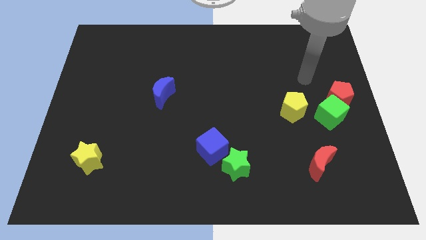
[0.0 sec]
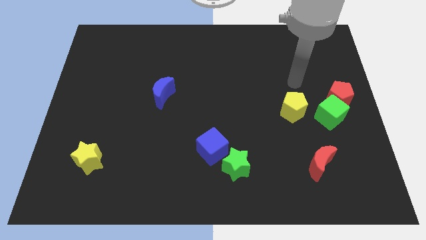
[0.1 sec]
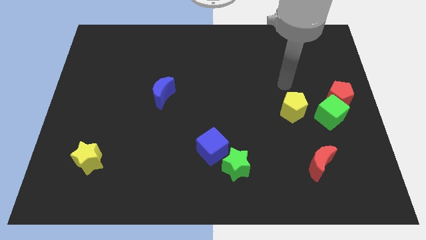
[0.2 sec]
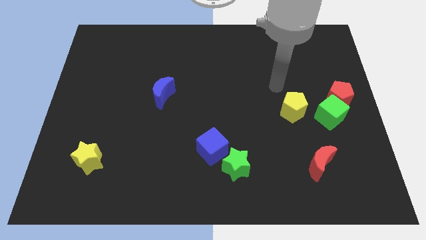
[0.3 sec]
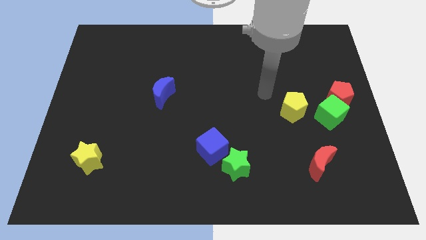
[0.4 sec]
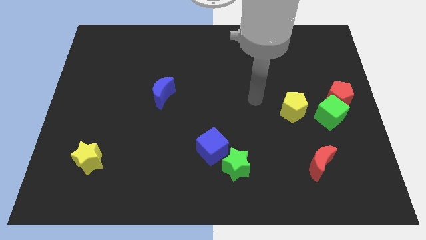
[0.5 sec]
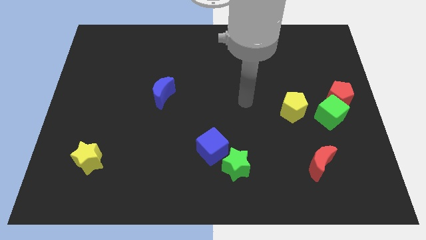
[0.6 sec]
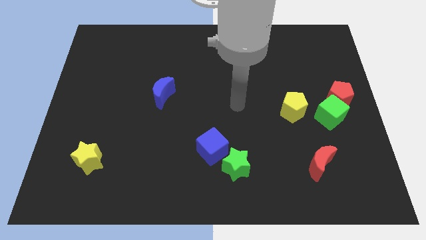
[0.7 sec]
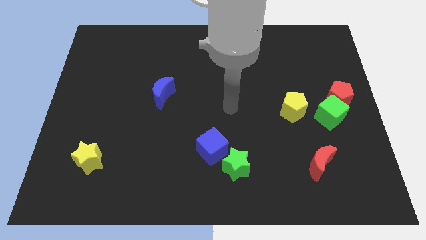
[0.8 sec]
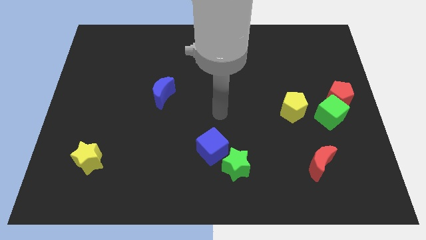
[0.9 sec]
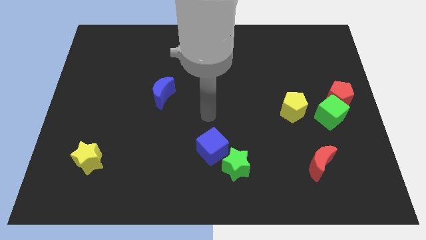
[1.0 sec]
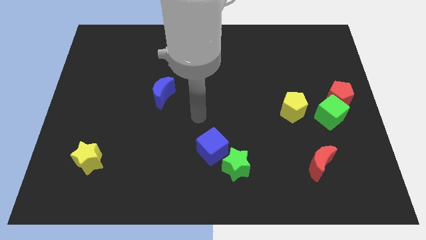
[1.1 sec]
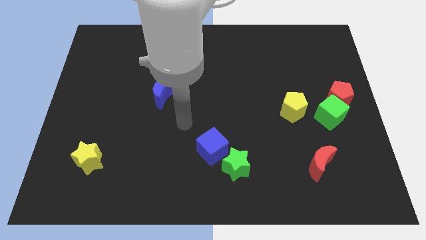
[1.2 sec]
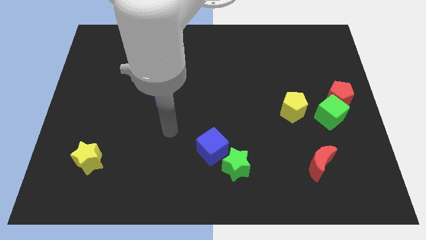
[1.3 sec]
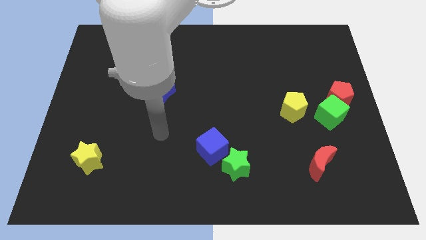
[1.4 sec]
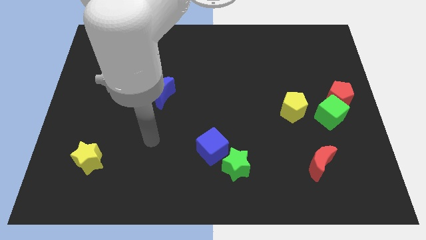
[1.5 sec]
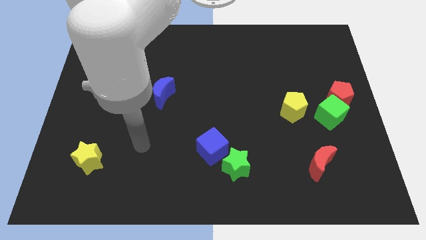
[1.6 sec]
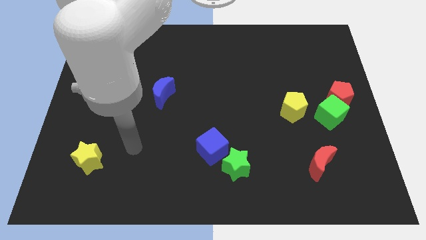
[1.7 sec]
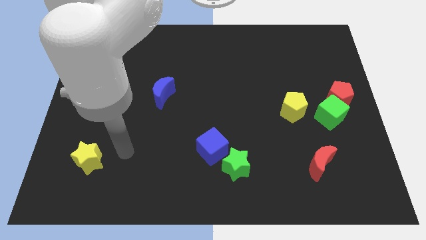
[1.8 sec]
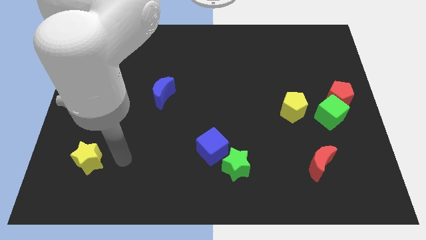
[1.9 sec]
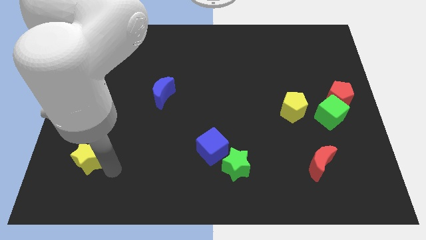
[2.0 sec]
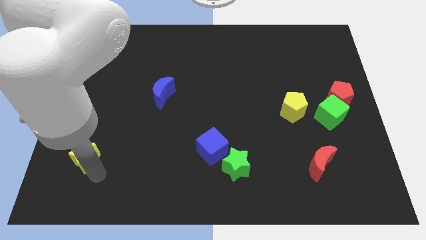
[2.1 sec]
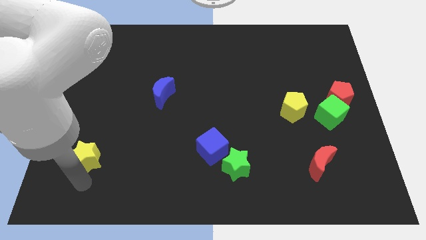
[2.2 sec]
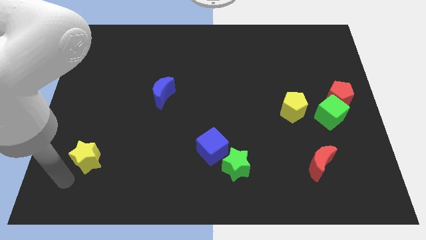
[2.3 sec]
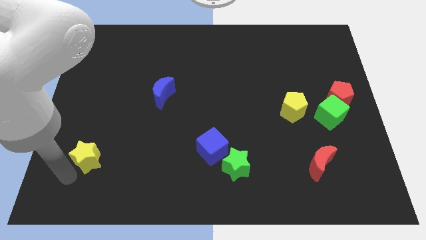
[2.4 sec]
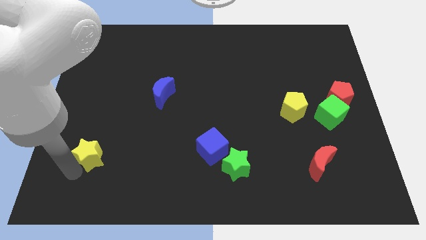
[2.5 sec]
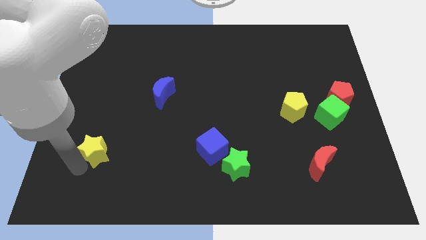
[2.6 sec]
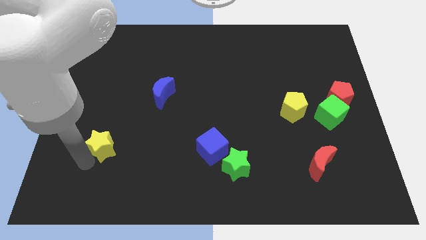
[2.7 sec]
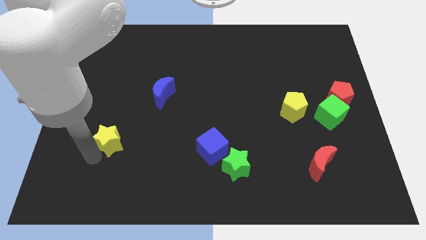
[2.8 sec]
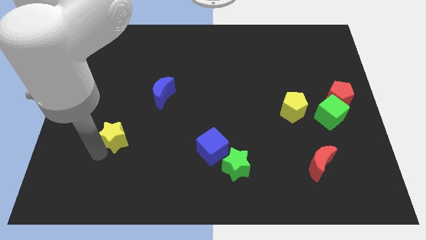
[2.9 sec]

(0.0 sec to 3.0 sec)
move the yellow star diagonally upwards and right a bit

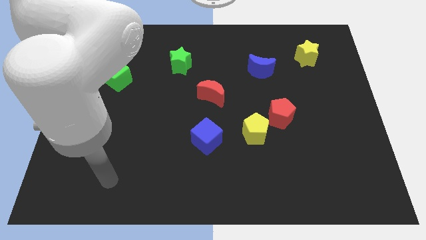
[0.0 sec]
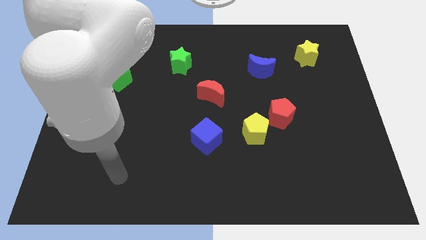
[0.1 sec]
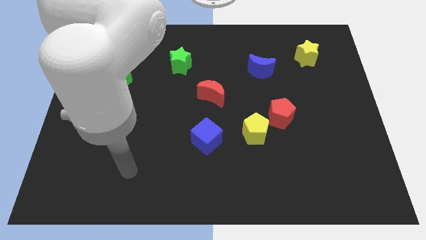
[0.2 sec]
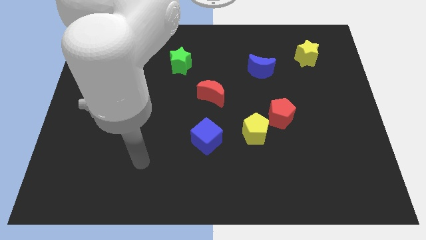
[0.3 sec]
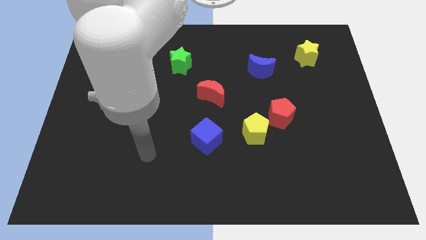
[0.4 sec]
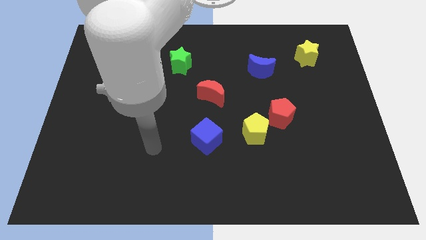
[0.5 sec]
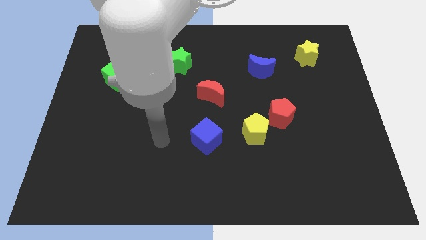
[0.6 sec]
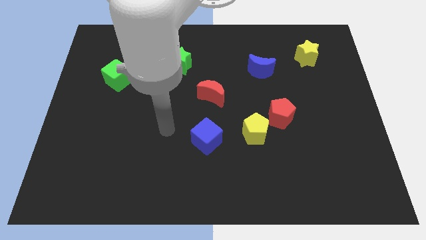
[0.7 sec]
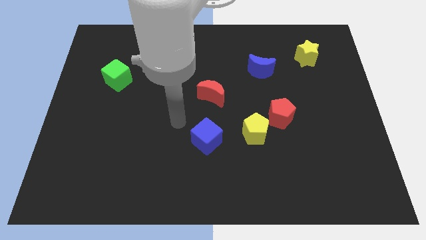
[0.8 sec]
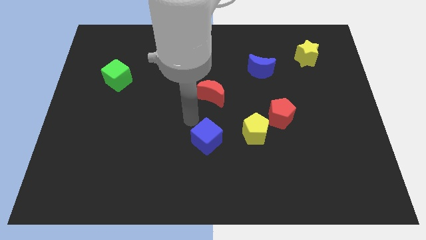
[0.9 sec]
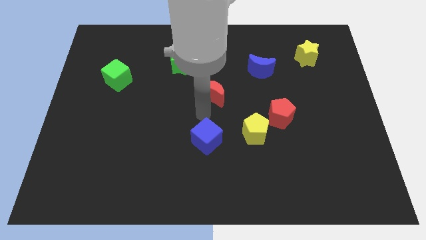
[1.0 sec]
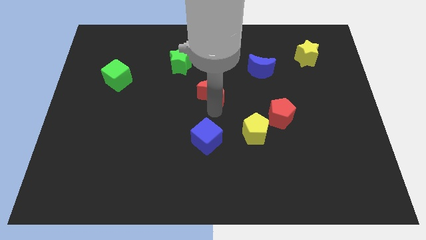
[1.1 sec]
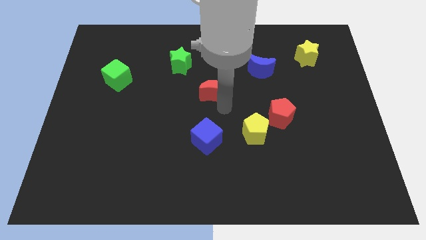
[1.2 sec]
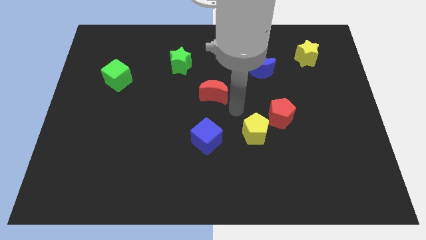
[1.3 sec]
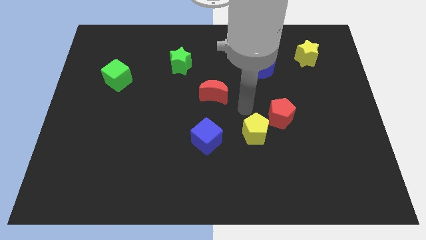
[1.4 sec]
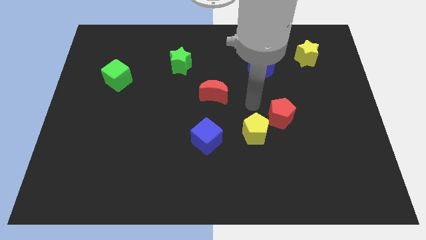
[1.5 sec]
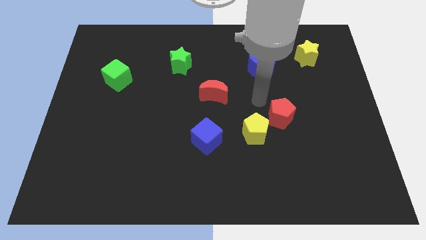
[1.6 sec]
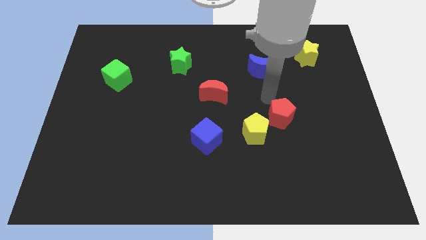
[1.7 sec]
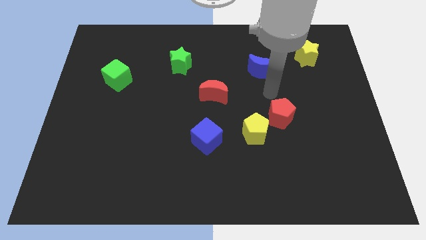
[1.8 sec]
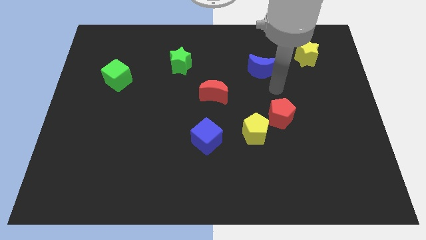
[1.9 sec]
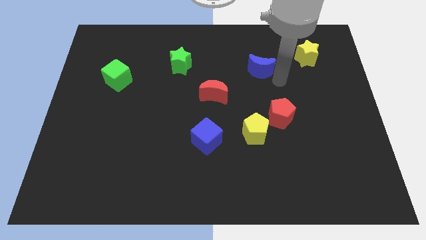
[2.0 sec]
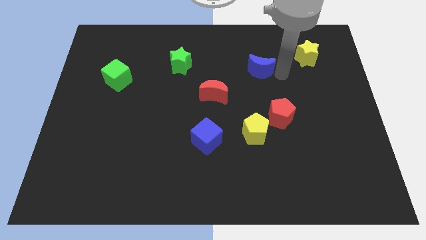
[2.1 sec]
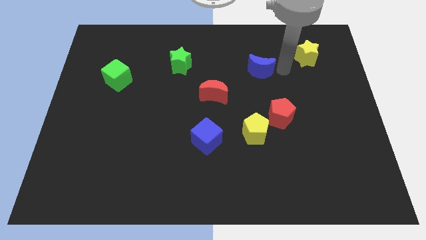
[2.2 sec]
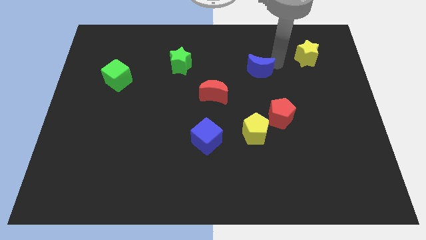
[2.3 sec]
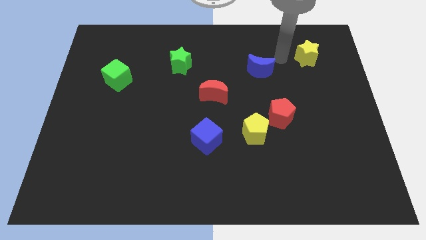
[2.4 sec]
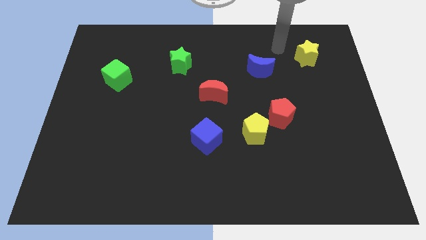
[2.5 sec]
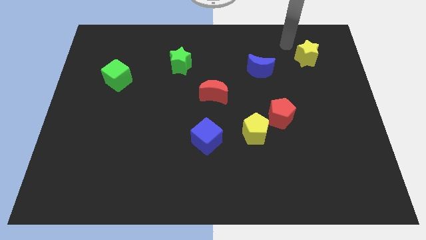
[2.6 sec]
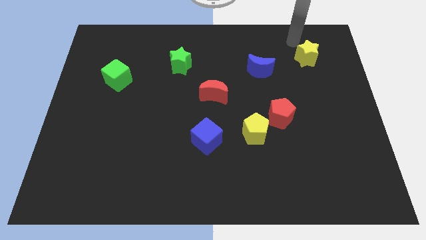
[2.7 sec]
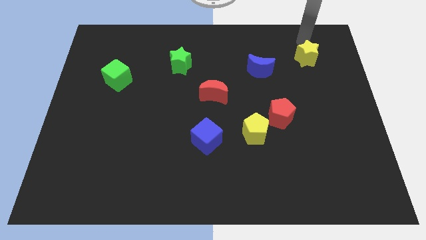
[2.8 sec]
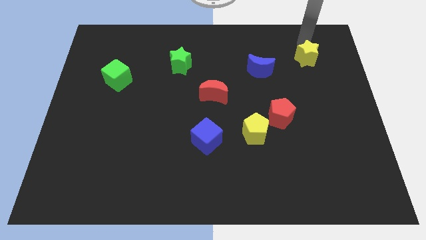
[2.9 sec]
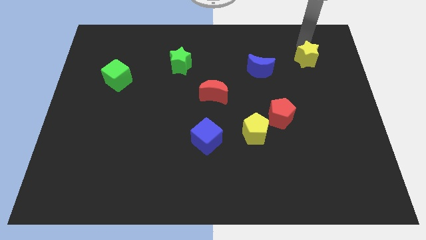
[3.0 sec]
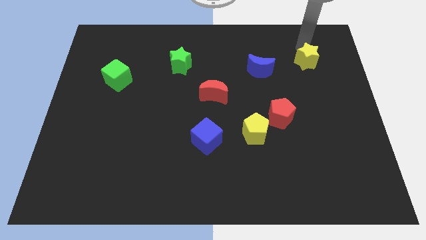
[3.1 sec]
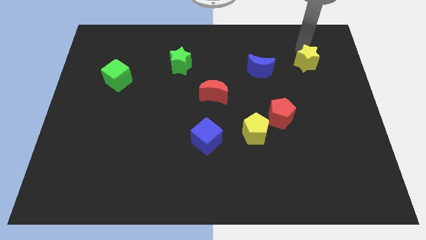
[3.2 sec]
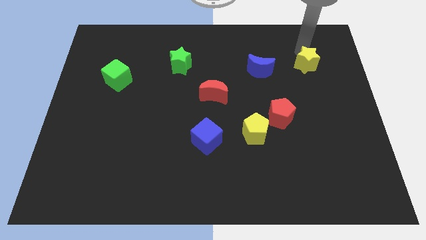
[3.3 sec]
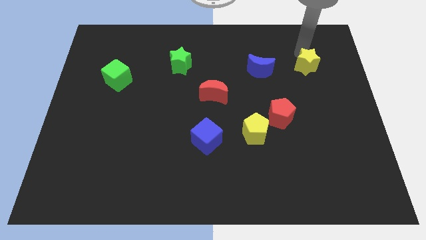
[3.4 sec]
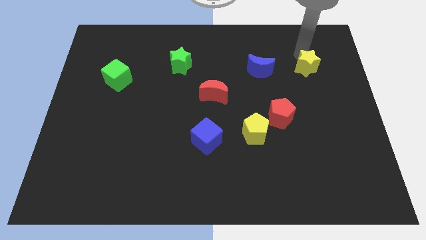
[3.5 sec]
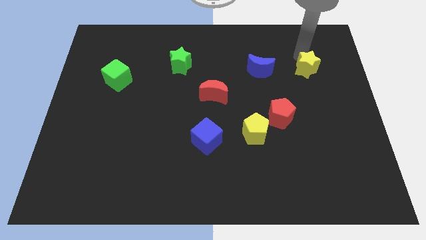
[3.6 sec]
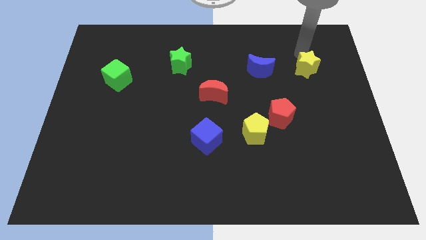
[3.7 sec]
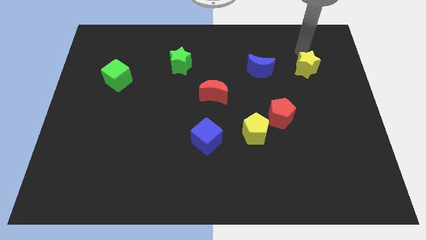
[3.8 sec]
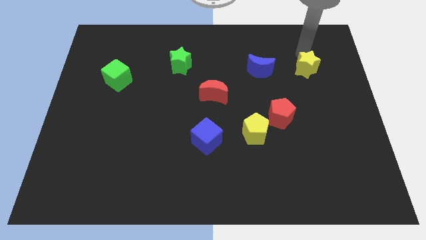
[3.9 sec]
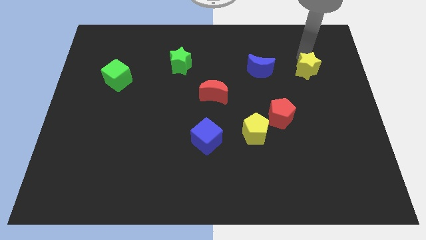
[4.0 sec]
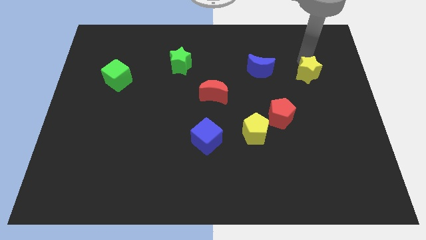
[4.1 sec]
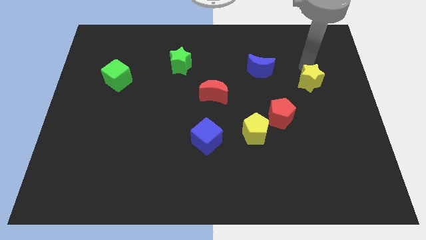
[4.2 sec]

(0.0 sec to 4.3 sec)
slide the yellow star downwards a bit

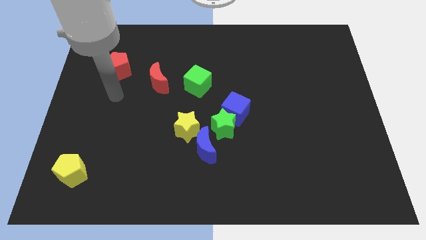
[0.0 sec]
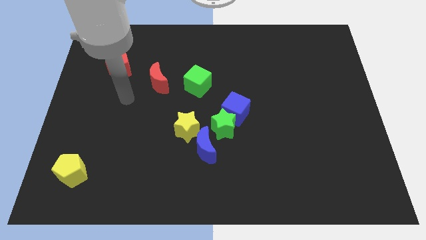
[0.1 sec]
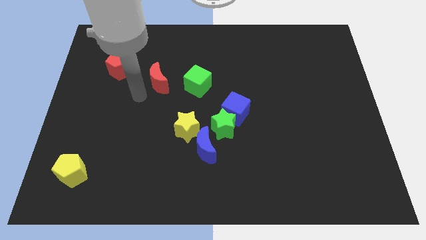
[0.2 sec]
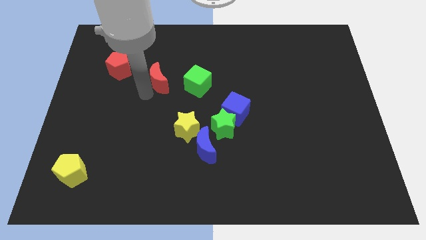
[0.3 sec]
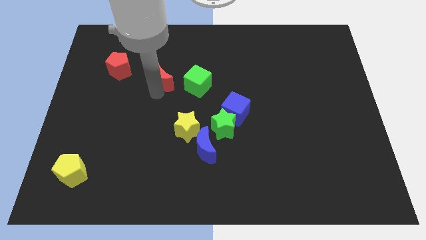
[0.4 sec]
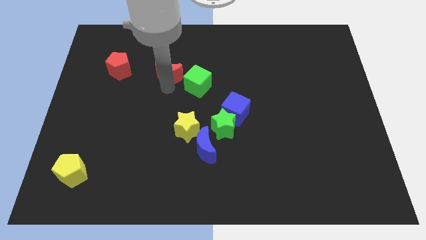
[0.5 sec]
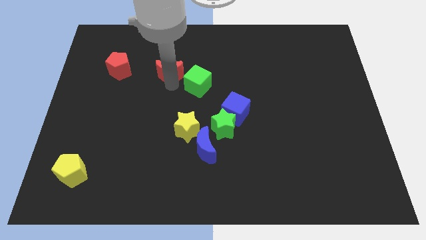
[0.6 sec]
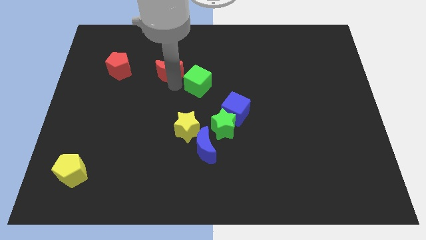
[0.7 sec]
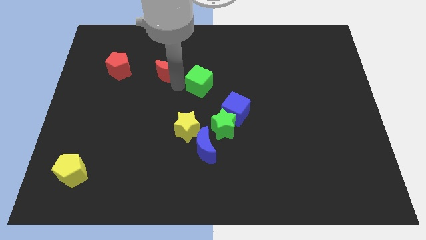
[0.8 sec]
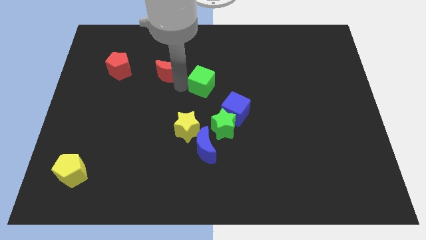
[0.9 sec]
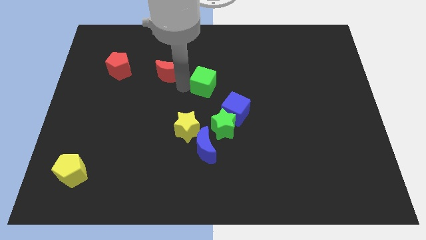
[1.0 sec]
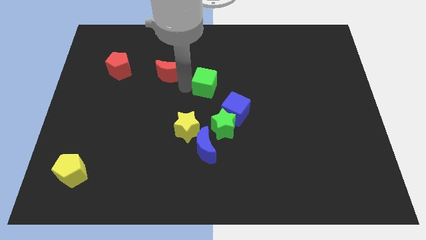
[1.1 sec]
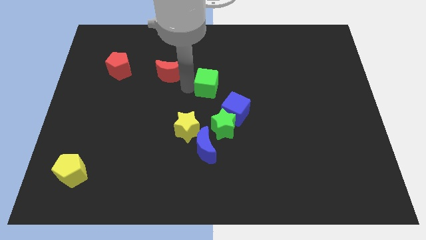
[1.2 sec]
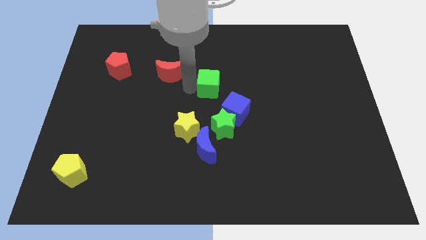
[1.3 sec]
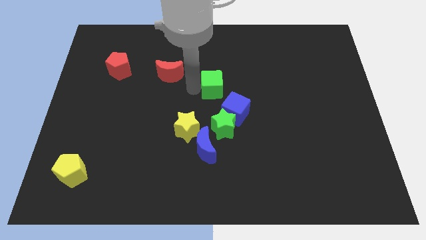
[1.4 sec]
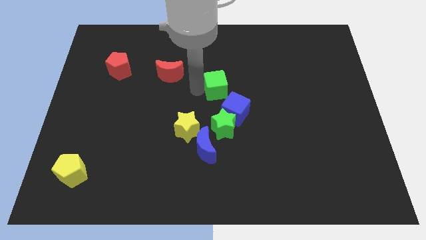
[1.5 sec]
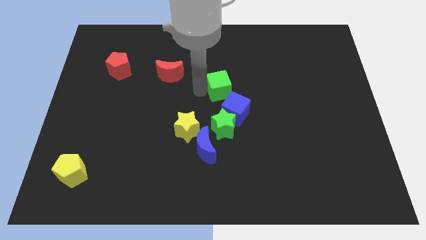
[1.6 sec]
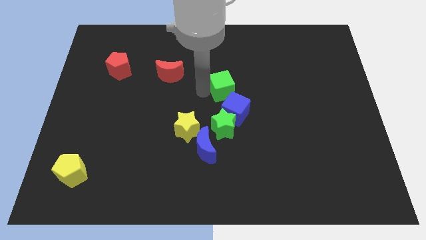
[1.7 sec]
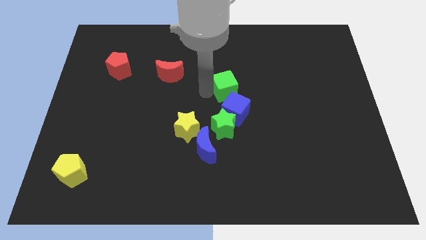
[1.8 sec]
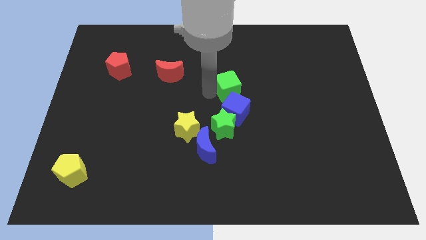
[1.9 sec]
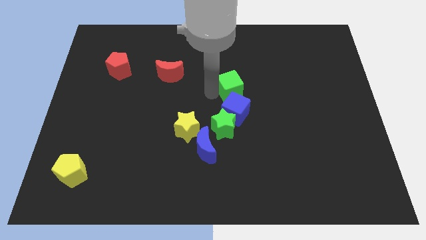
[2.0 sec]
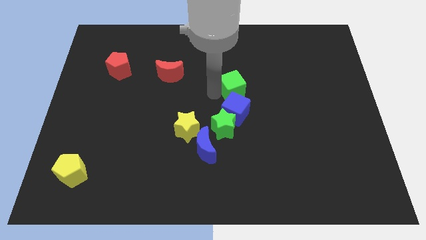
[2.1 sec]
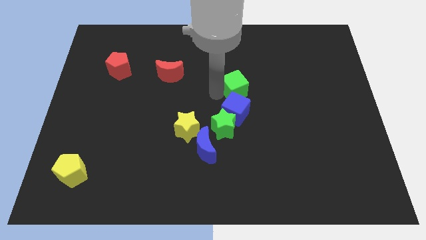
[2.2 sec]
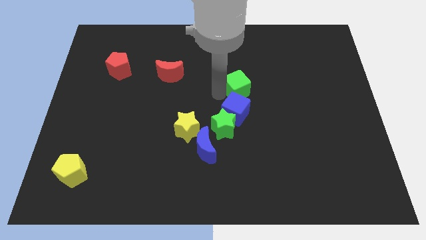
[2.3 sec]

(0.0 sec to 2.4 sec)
slide the green cube a little diagonally downwards and right
